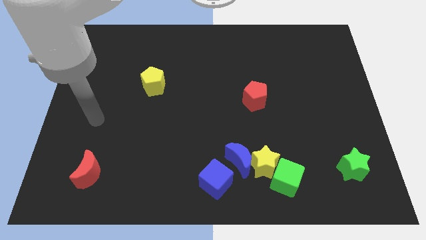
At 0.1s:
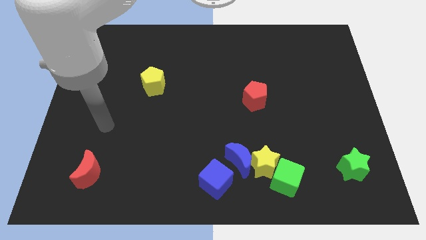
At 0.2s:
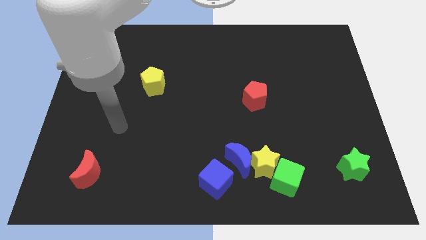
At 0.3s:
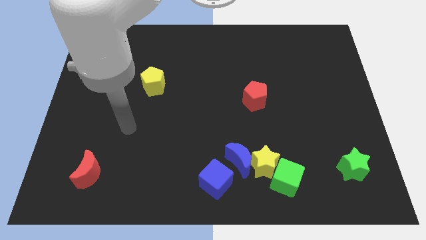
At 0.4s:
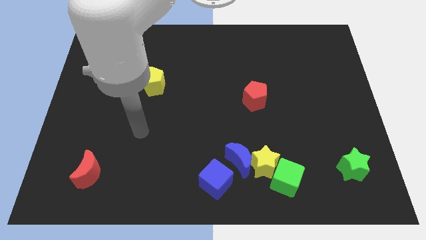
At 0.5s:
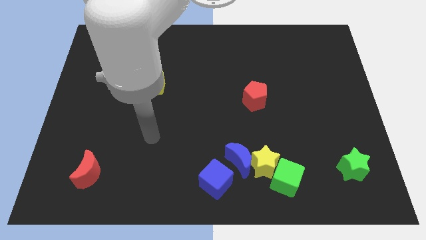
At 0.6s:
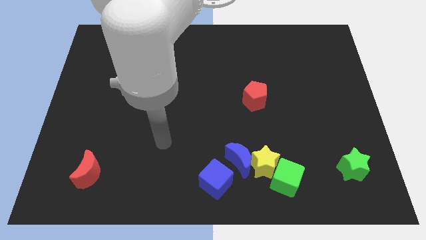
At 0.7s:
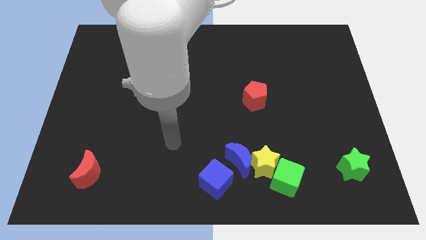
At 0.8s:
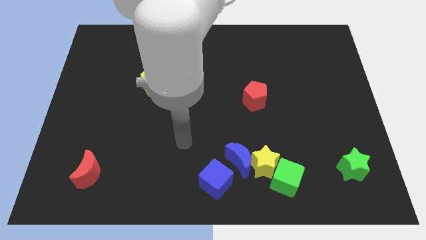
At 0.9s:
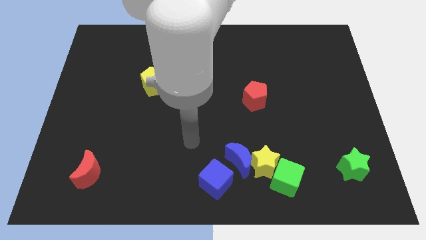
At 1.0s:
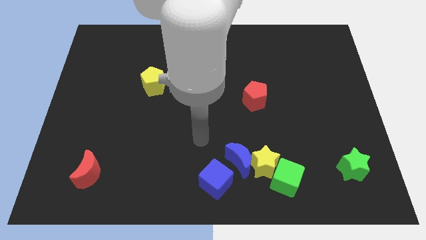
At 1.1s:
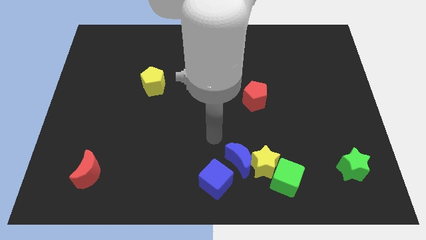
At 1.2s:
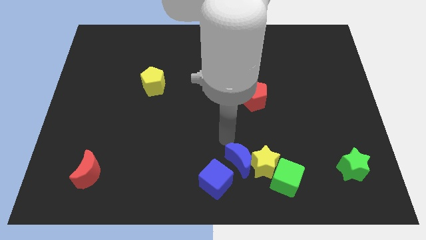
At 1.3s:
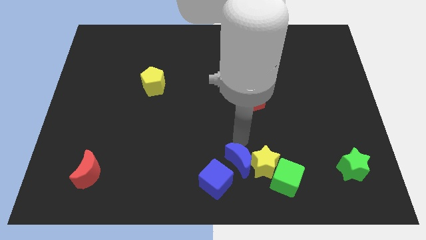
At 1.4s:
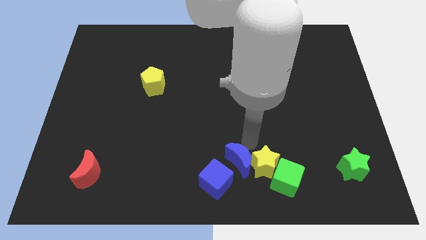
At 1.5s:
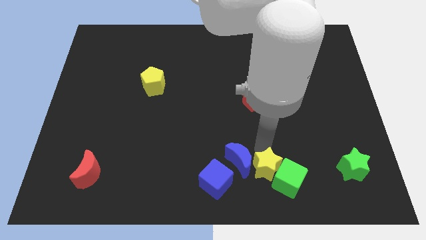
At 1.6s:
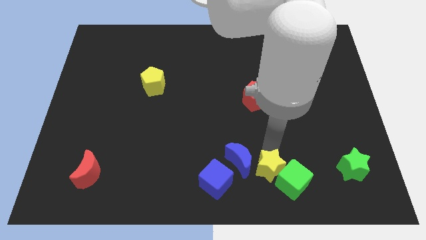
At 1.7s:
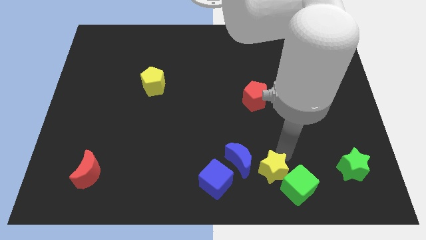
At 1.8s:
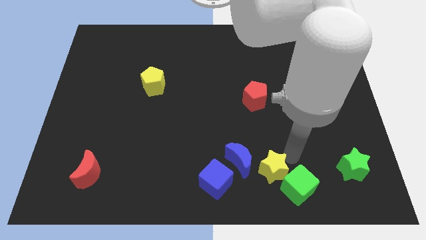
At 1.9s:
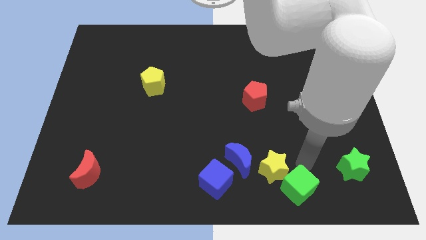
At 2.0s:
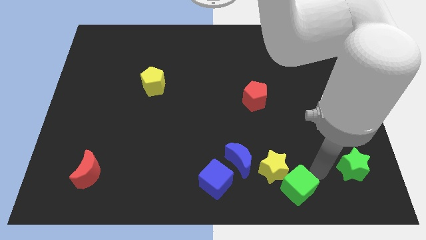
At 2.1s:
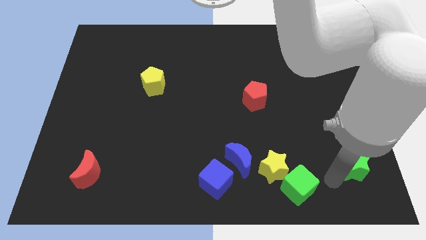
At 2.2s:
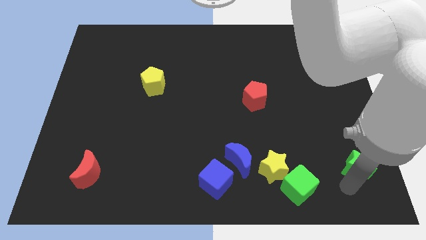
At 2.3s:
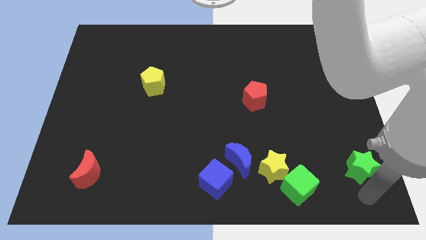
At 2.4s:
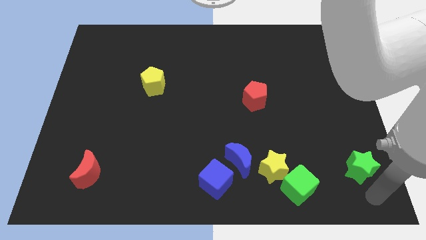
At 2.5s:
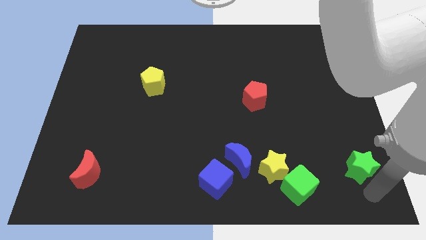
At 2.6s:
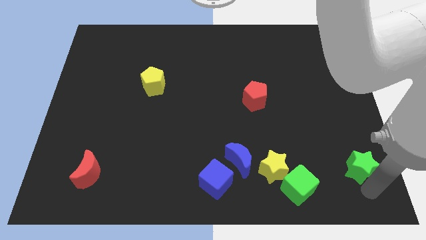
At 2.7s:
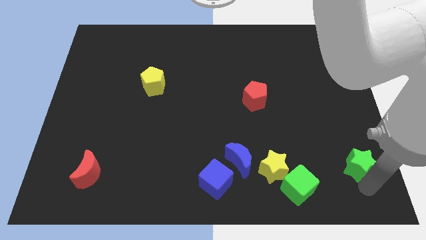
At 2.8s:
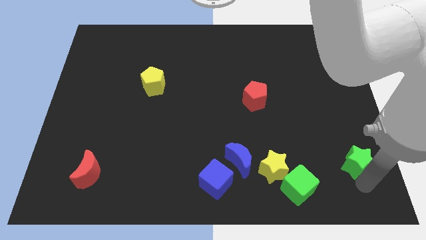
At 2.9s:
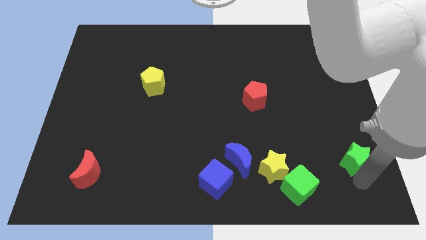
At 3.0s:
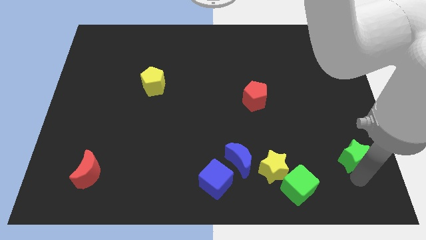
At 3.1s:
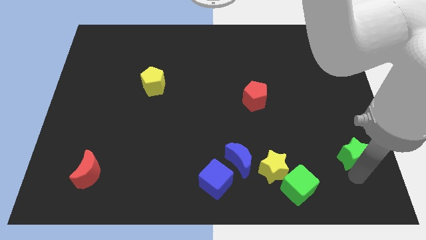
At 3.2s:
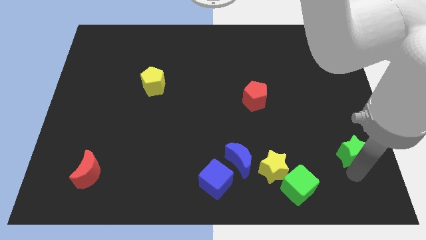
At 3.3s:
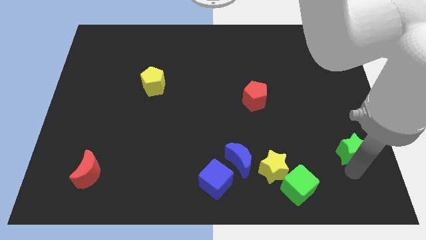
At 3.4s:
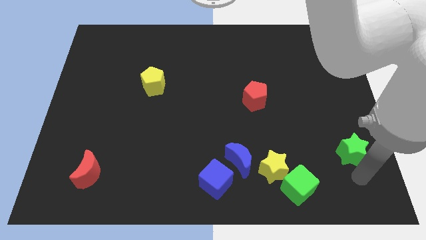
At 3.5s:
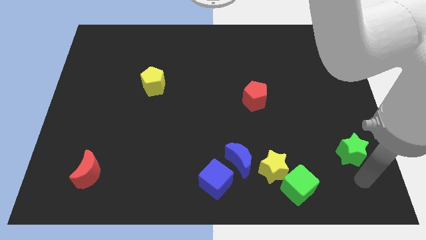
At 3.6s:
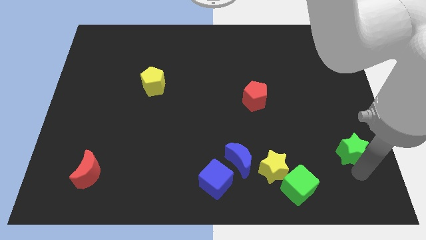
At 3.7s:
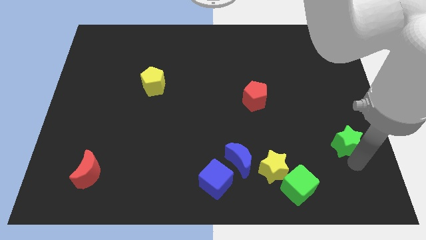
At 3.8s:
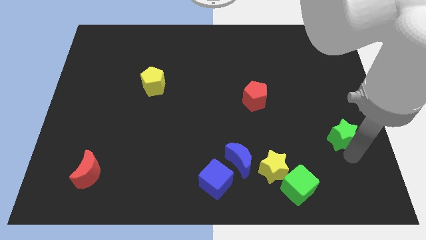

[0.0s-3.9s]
slightly push the green star up

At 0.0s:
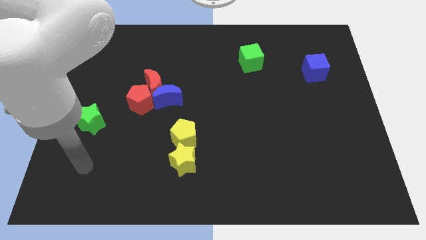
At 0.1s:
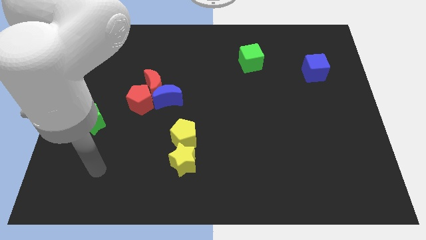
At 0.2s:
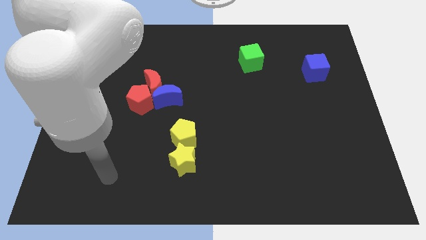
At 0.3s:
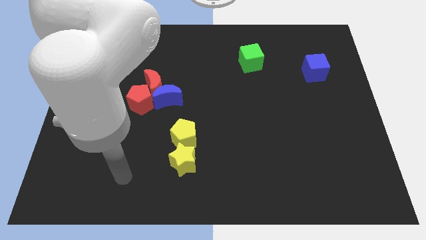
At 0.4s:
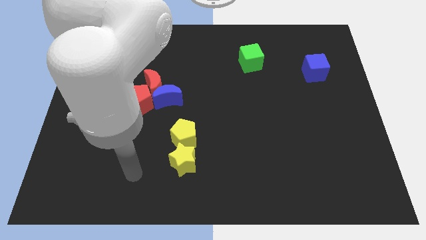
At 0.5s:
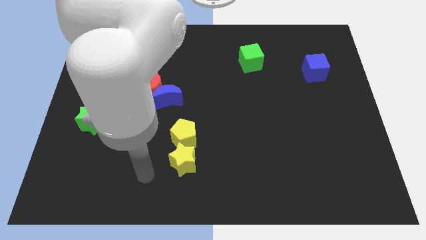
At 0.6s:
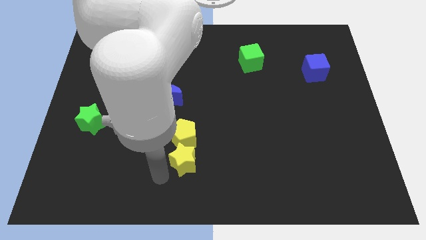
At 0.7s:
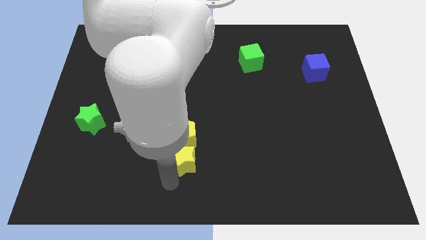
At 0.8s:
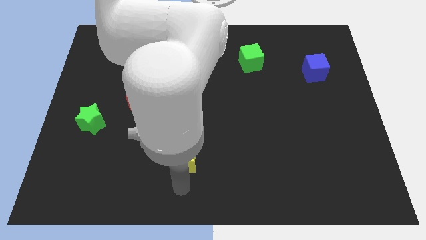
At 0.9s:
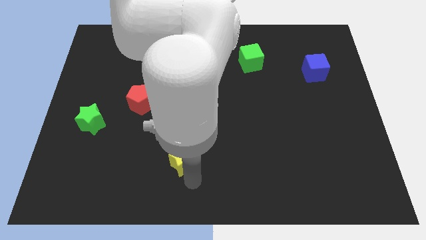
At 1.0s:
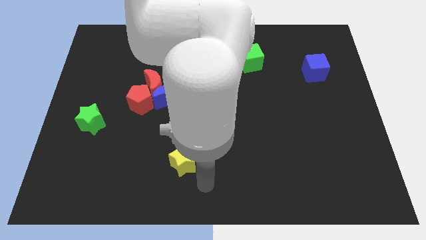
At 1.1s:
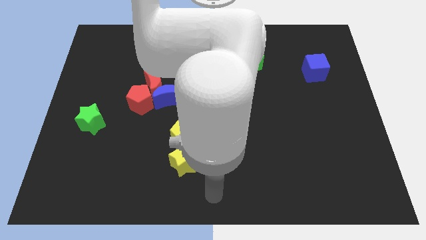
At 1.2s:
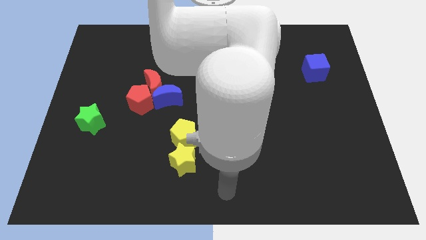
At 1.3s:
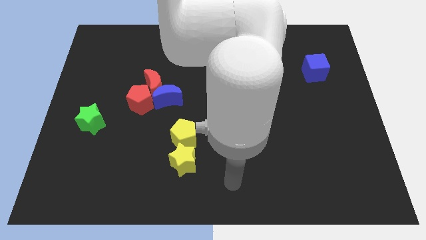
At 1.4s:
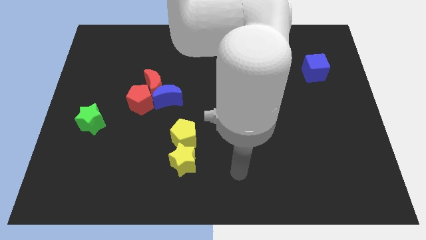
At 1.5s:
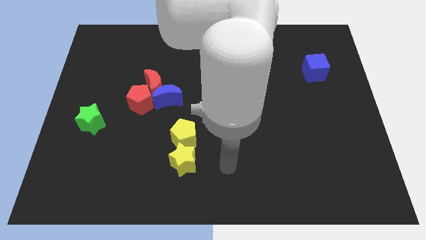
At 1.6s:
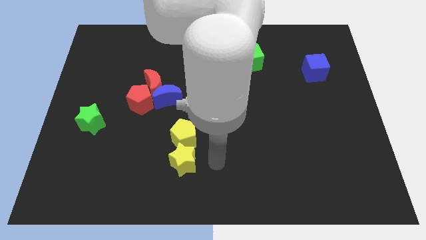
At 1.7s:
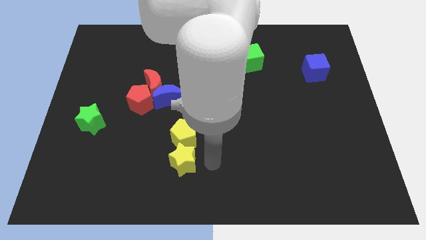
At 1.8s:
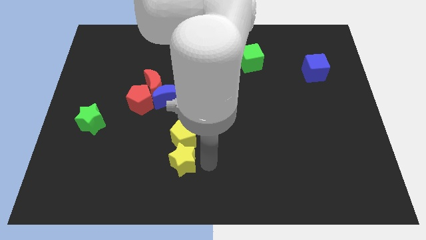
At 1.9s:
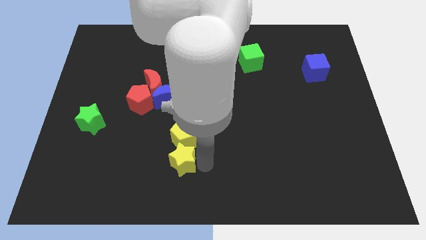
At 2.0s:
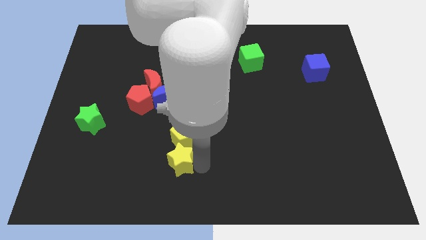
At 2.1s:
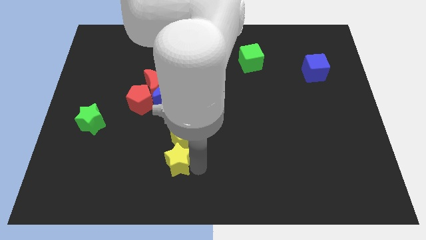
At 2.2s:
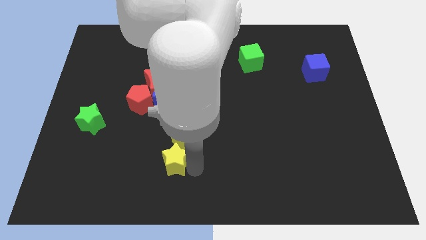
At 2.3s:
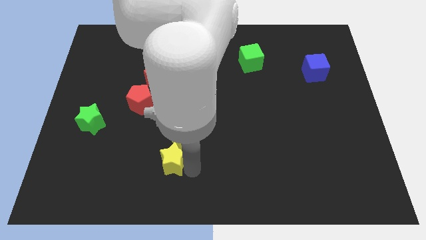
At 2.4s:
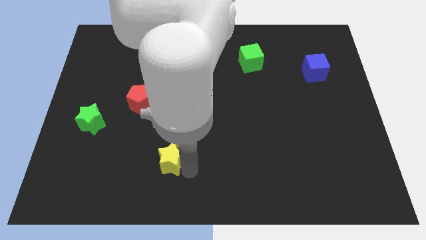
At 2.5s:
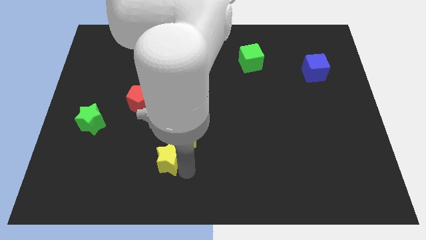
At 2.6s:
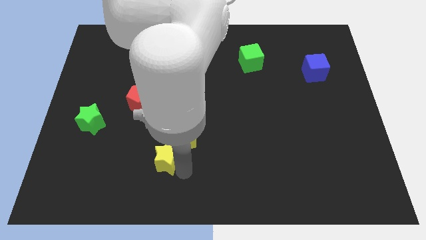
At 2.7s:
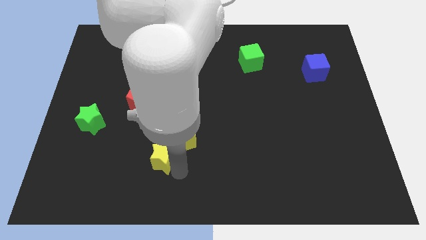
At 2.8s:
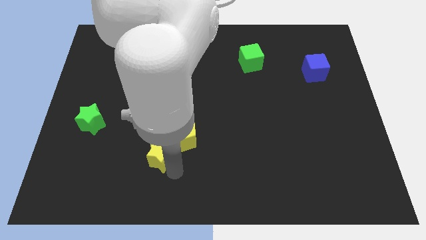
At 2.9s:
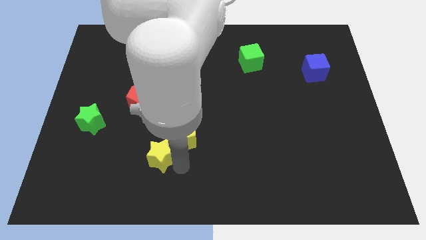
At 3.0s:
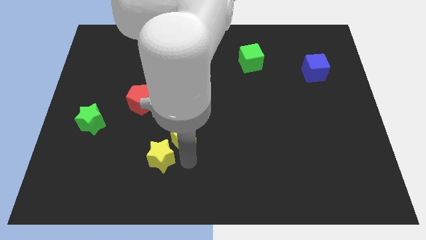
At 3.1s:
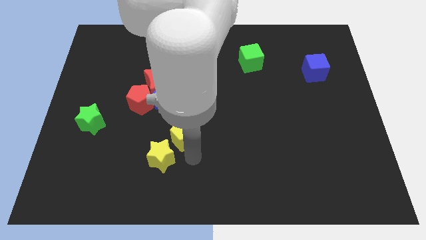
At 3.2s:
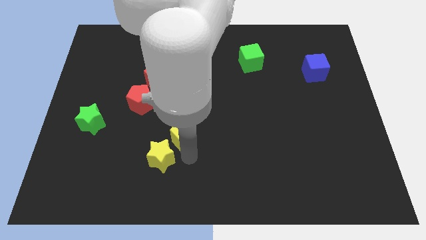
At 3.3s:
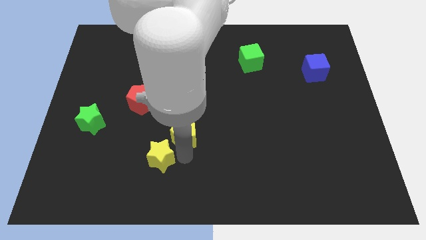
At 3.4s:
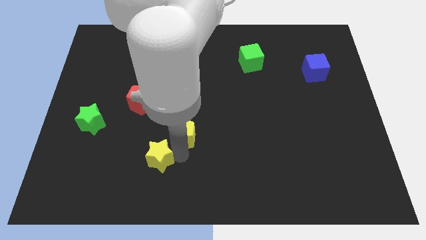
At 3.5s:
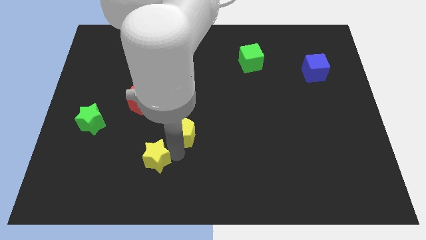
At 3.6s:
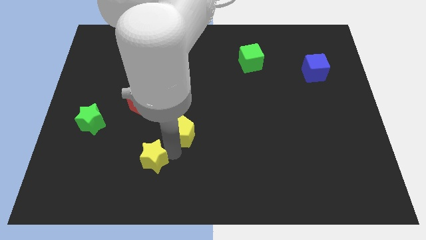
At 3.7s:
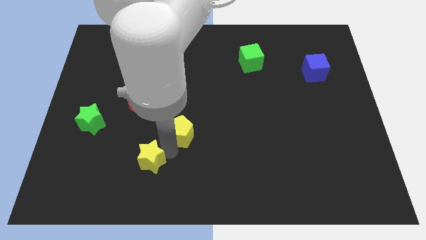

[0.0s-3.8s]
move the yellow star slightly left

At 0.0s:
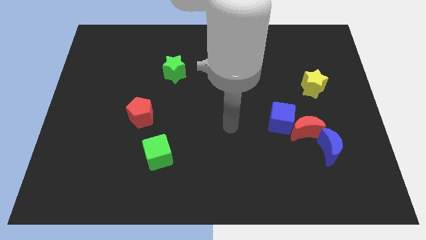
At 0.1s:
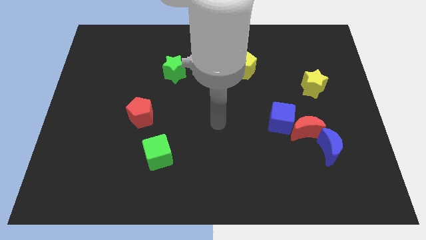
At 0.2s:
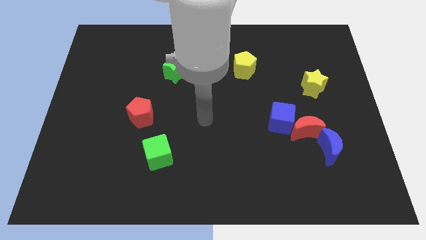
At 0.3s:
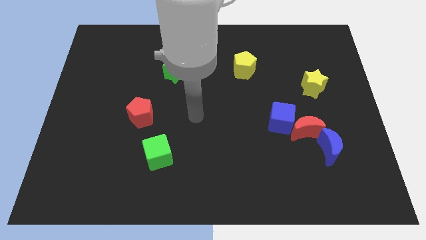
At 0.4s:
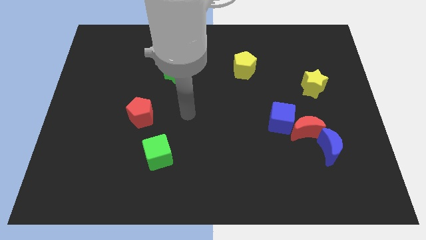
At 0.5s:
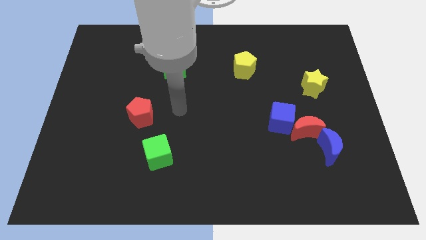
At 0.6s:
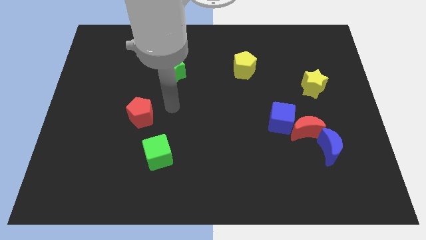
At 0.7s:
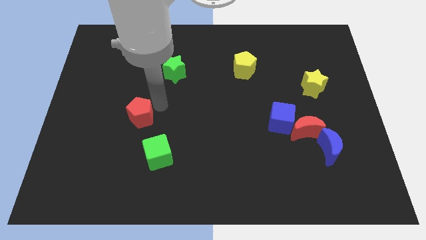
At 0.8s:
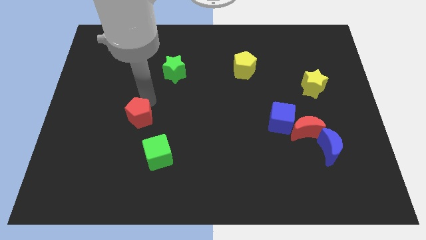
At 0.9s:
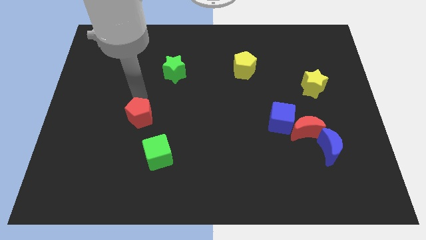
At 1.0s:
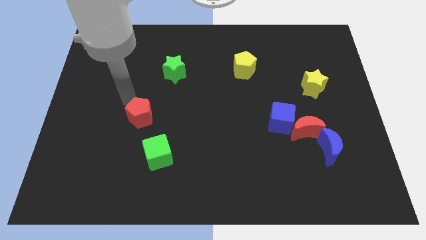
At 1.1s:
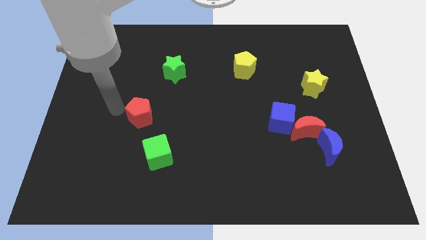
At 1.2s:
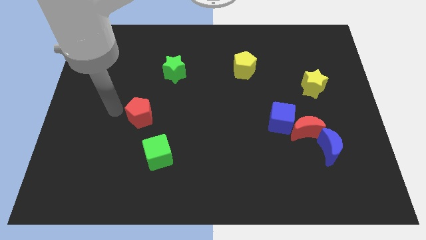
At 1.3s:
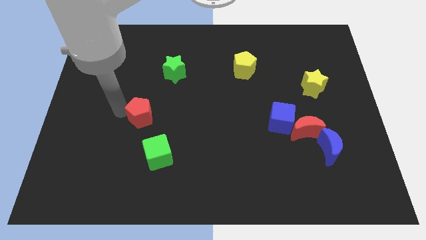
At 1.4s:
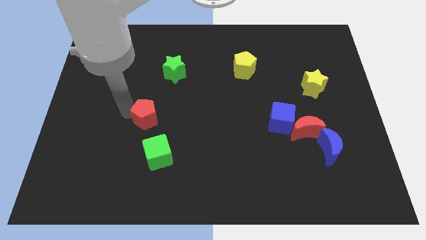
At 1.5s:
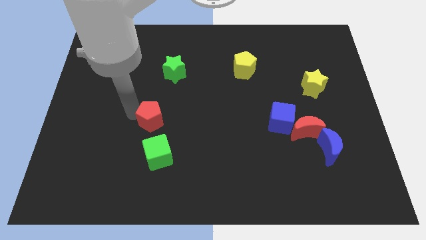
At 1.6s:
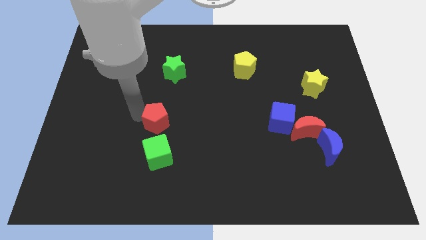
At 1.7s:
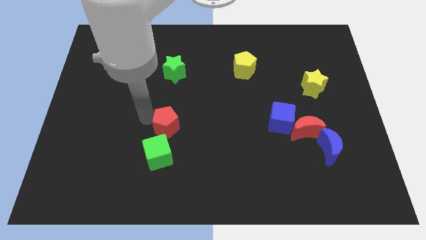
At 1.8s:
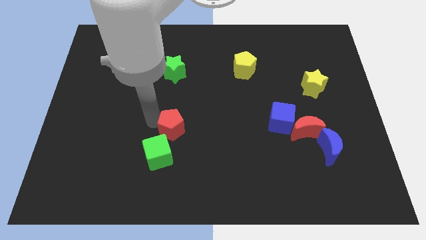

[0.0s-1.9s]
push the red pentagon right a bit
